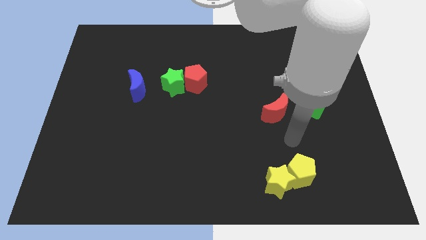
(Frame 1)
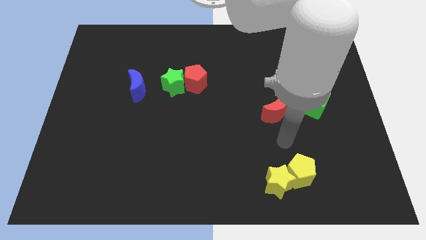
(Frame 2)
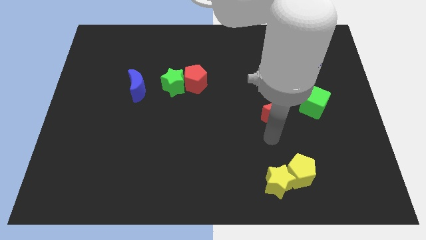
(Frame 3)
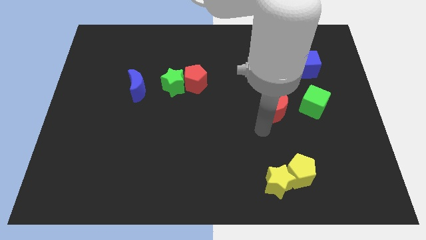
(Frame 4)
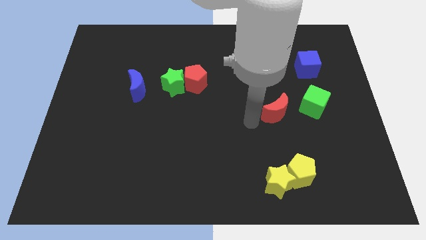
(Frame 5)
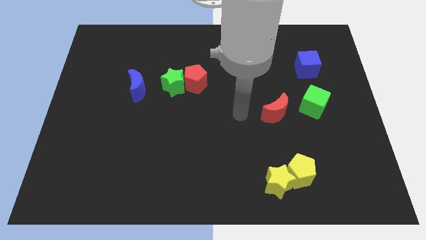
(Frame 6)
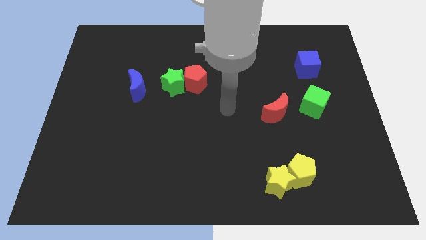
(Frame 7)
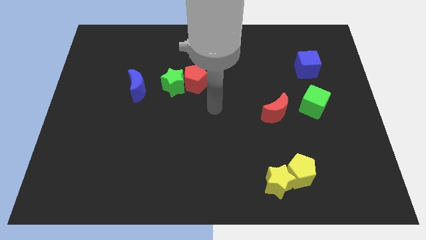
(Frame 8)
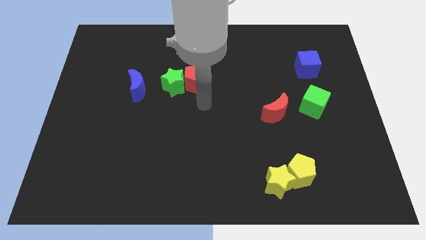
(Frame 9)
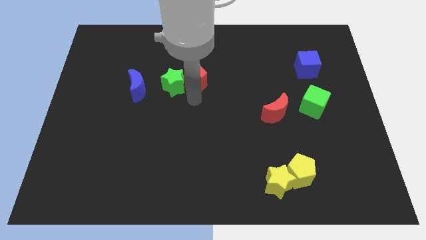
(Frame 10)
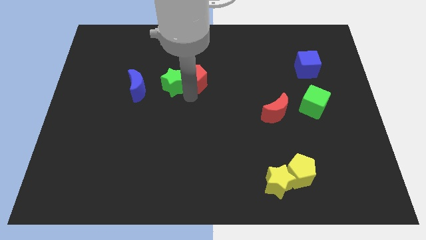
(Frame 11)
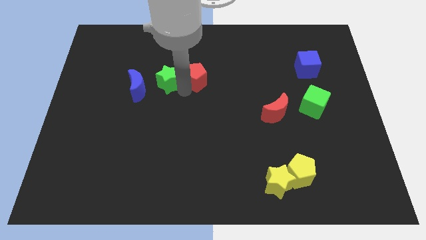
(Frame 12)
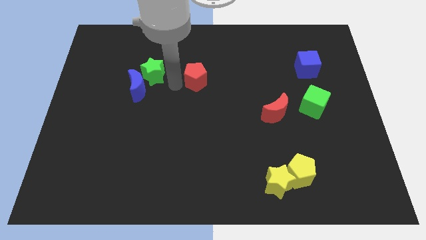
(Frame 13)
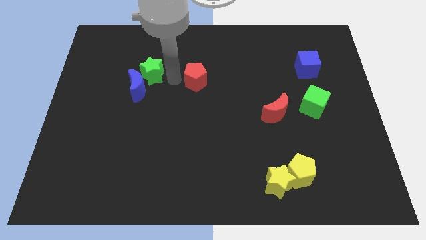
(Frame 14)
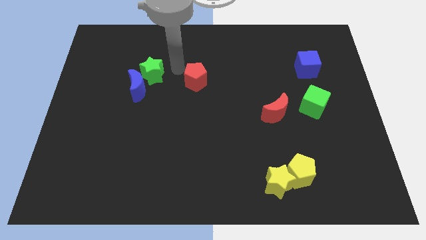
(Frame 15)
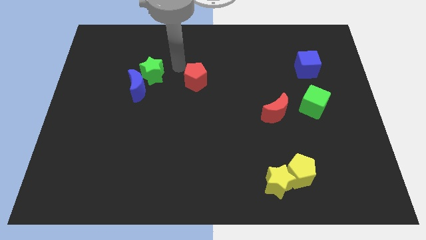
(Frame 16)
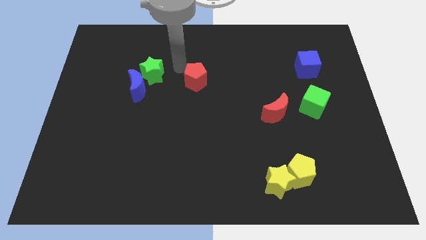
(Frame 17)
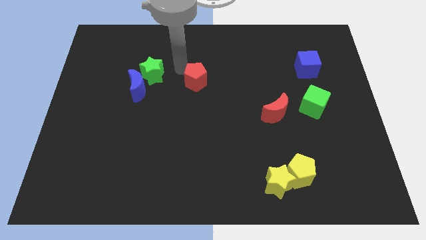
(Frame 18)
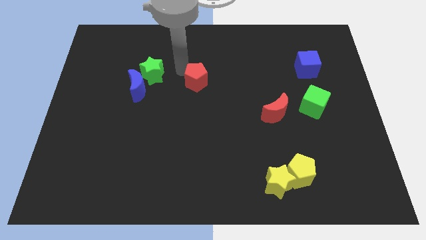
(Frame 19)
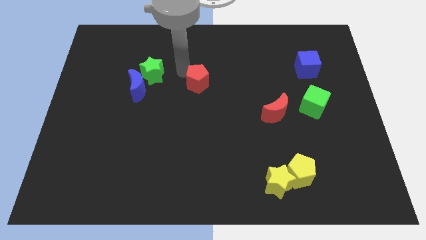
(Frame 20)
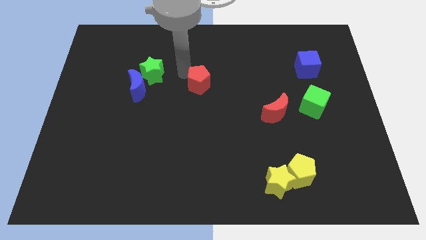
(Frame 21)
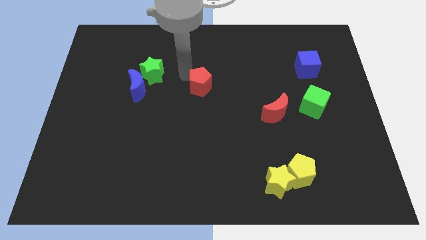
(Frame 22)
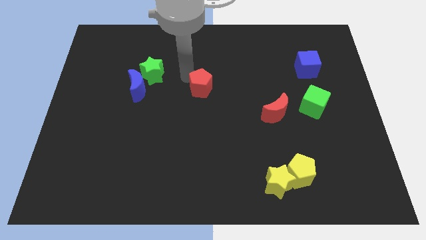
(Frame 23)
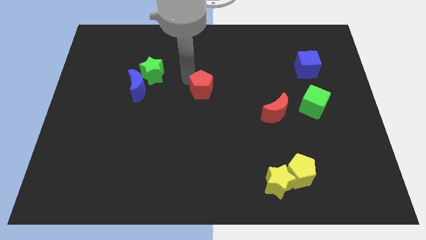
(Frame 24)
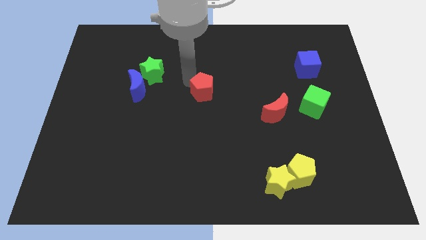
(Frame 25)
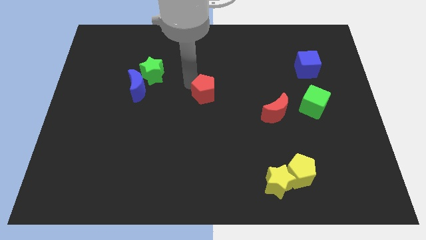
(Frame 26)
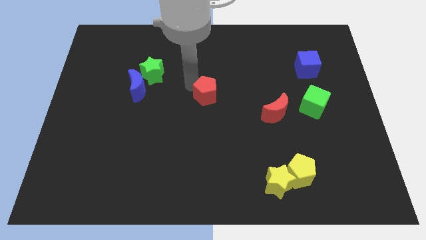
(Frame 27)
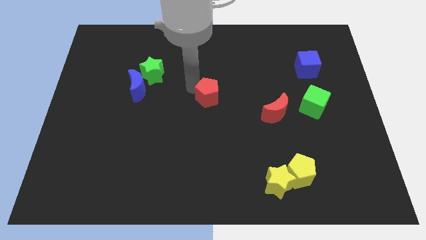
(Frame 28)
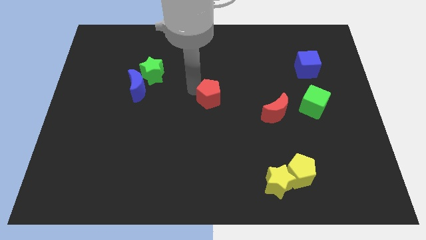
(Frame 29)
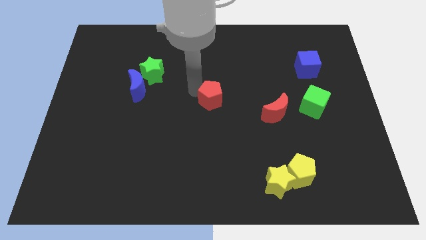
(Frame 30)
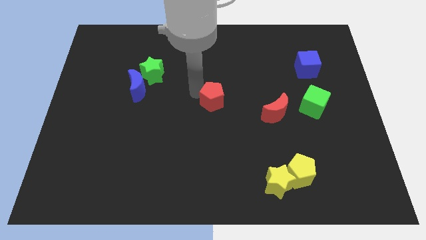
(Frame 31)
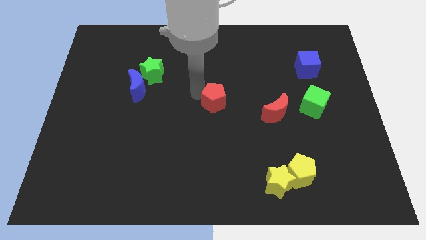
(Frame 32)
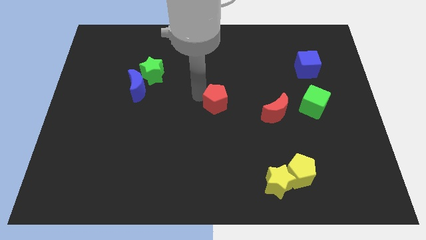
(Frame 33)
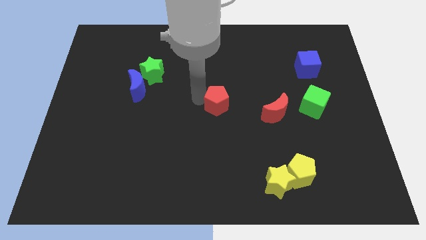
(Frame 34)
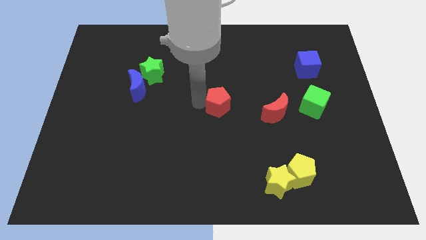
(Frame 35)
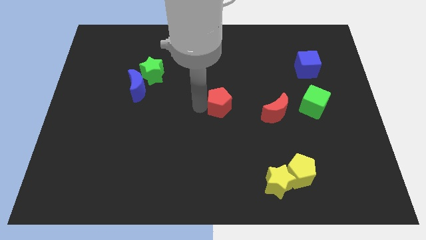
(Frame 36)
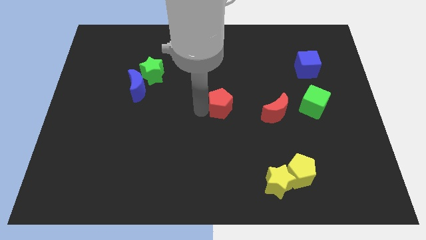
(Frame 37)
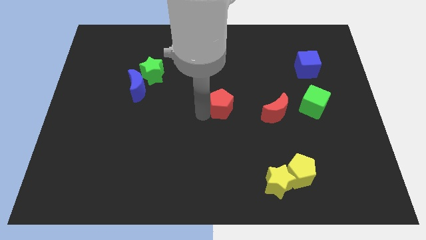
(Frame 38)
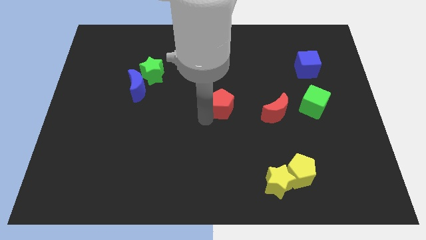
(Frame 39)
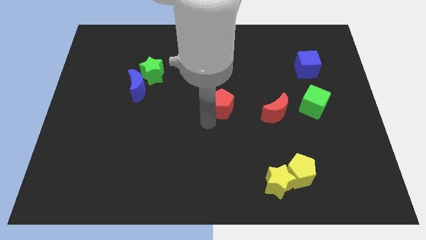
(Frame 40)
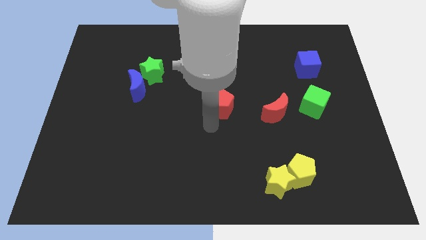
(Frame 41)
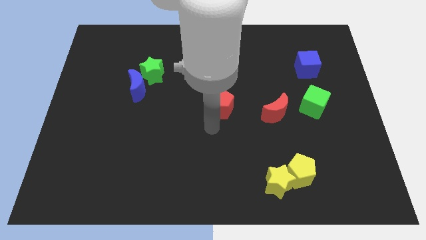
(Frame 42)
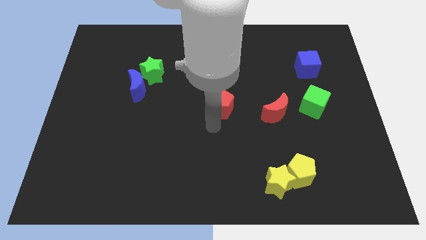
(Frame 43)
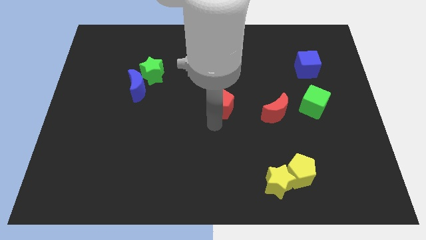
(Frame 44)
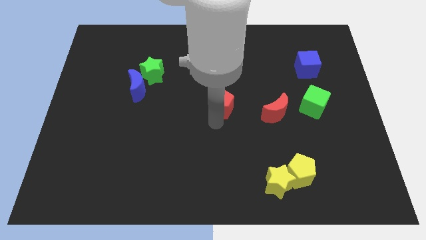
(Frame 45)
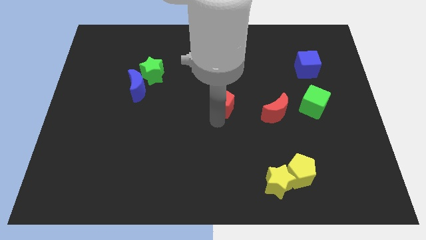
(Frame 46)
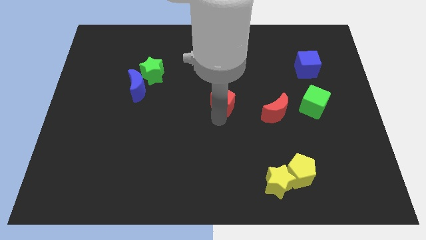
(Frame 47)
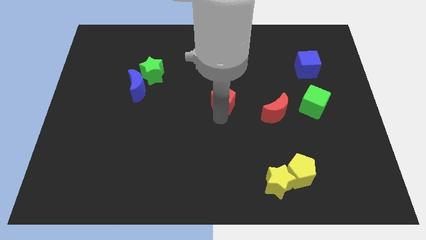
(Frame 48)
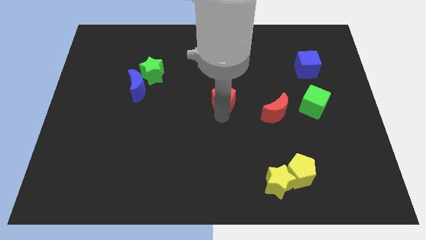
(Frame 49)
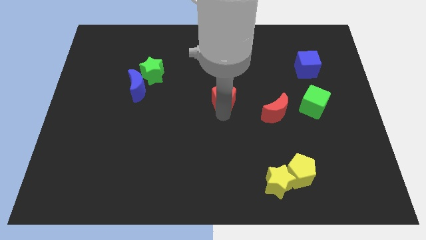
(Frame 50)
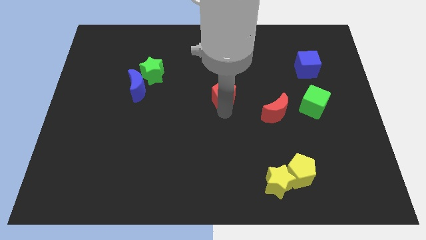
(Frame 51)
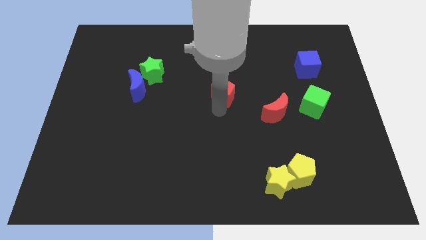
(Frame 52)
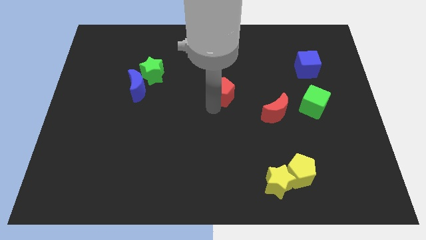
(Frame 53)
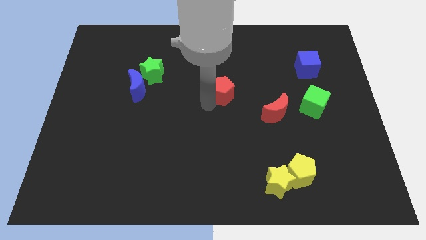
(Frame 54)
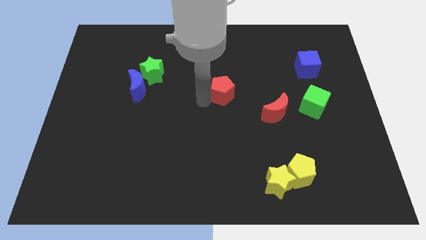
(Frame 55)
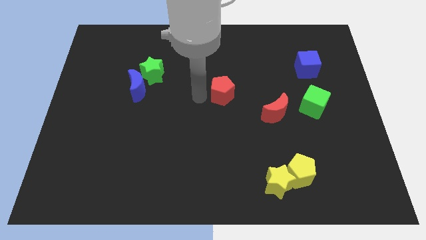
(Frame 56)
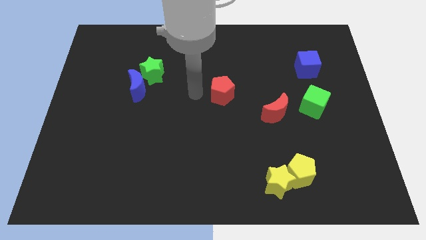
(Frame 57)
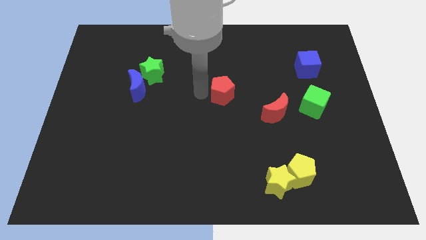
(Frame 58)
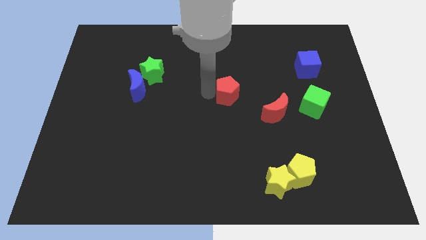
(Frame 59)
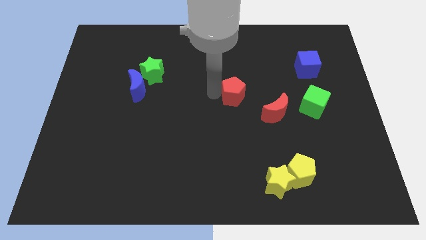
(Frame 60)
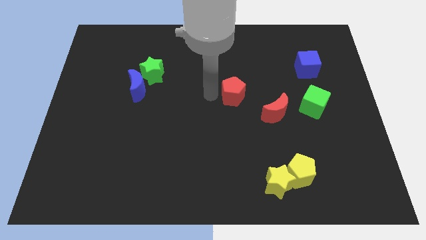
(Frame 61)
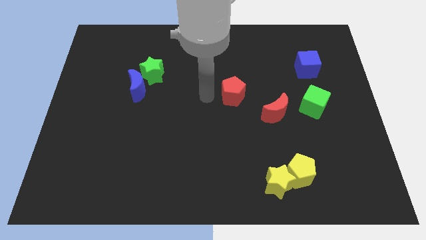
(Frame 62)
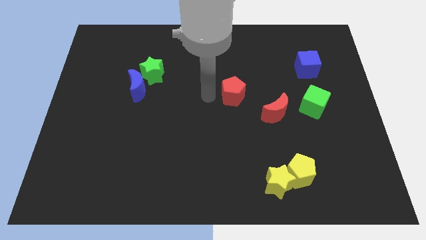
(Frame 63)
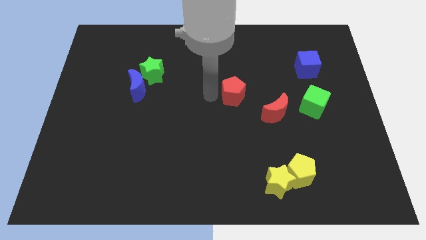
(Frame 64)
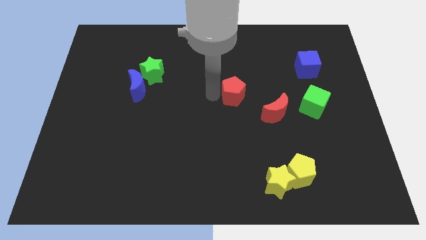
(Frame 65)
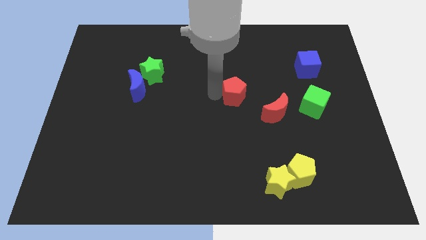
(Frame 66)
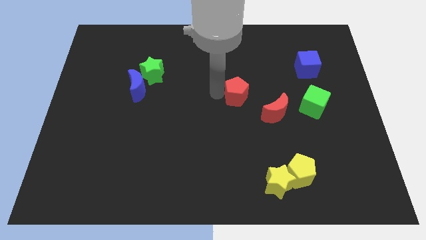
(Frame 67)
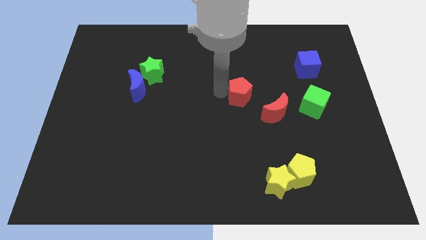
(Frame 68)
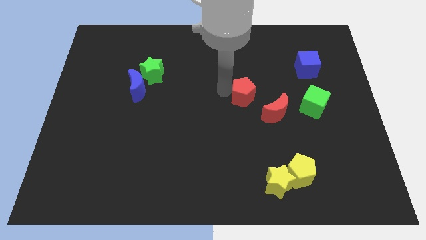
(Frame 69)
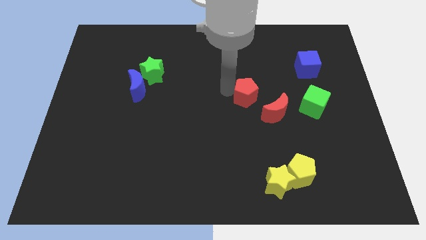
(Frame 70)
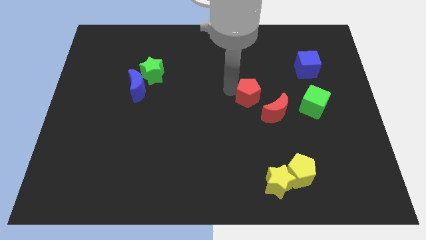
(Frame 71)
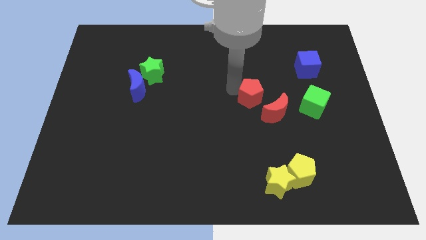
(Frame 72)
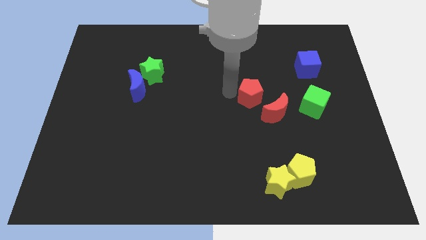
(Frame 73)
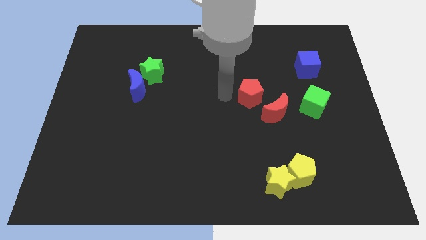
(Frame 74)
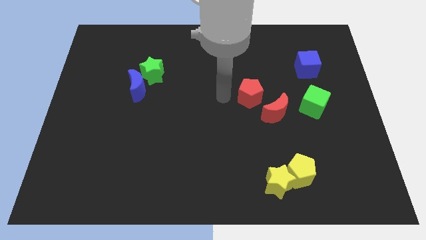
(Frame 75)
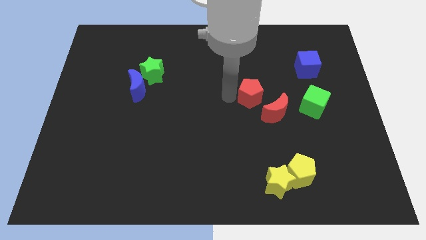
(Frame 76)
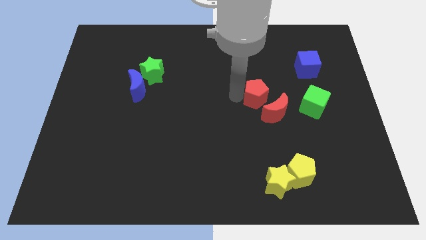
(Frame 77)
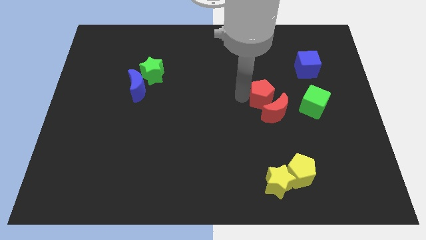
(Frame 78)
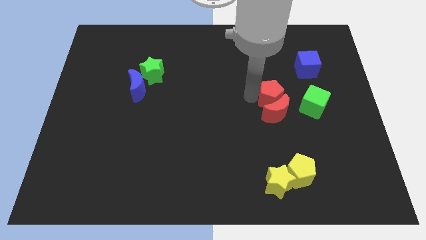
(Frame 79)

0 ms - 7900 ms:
push the red pentagon diagonally up and to the right of the red moon
